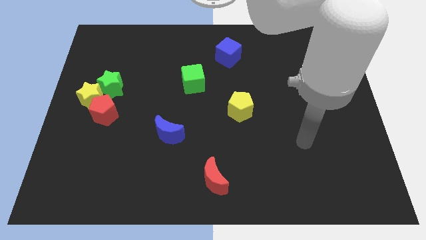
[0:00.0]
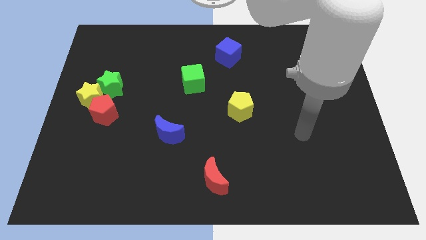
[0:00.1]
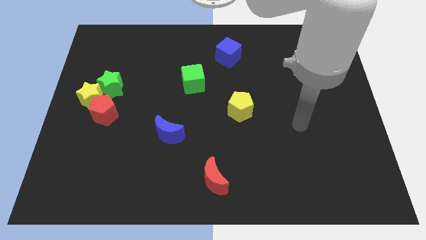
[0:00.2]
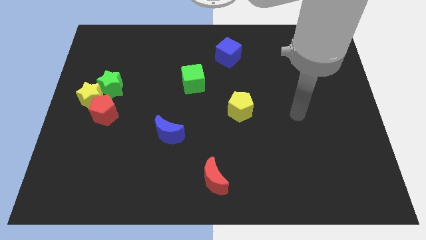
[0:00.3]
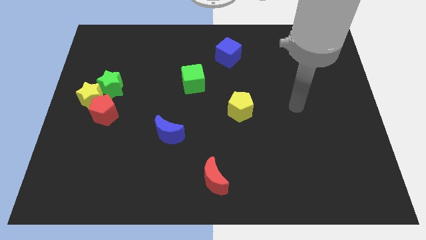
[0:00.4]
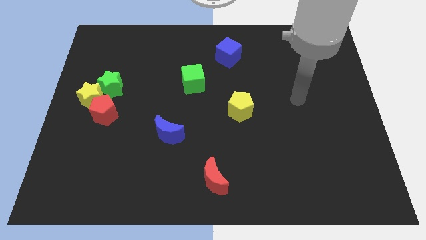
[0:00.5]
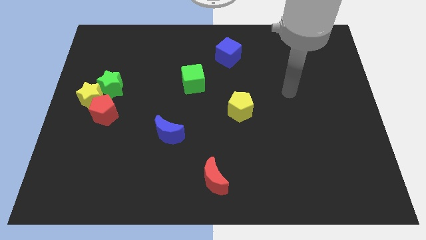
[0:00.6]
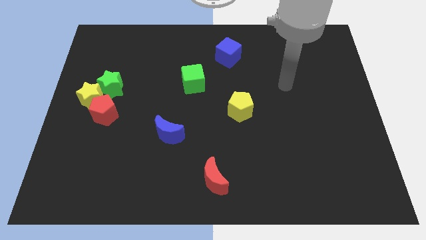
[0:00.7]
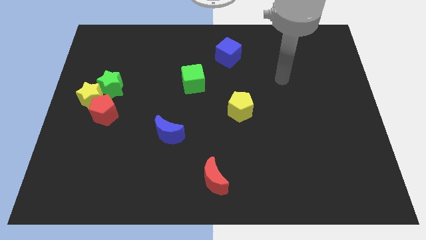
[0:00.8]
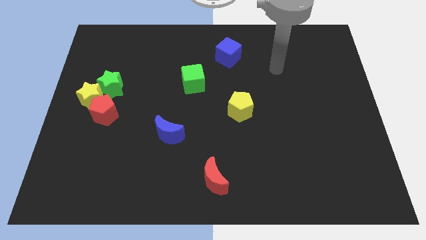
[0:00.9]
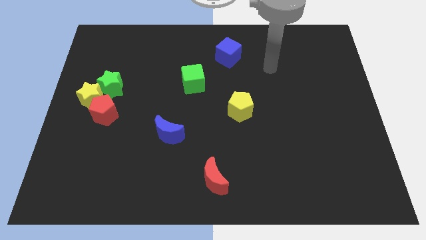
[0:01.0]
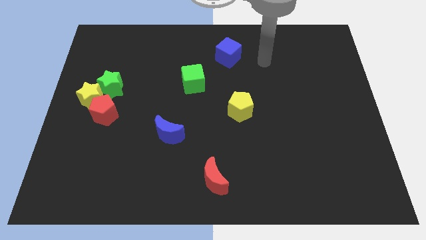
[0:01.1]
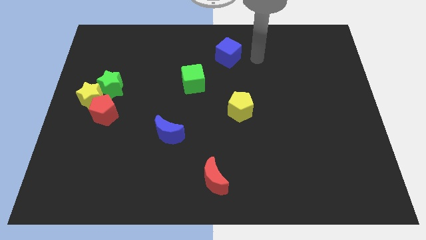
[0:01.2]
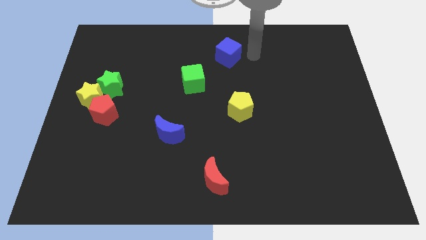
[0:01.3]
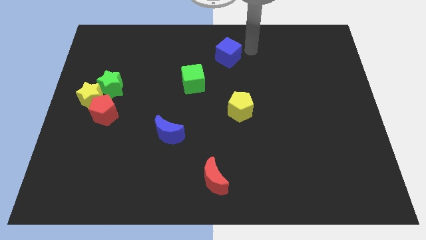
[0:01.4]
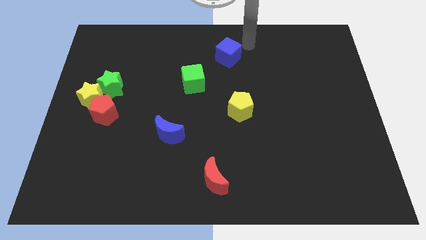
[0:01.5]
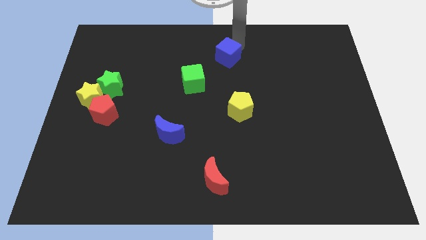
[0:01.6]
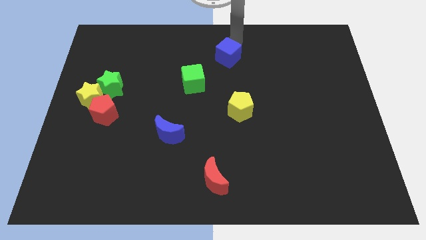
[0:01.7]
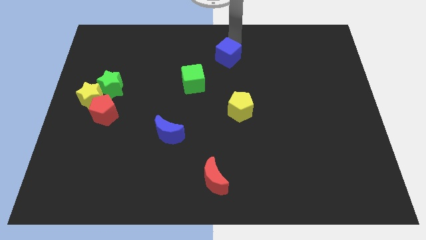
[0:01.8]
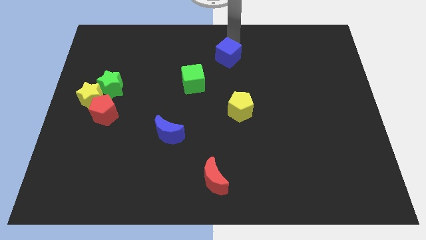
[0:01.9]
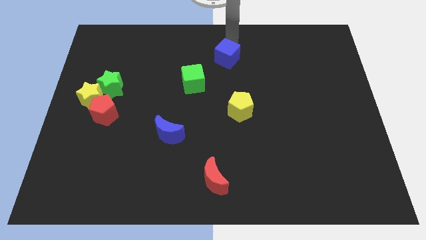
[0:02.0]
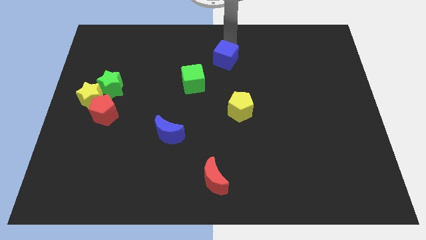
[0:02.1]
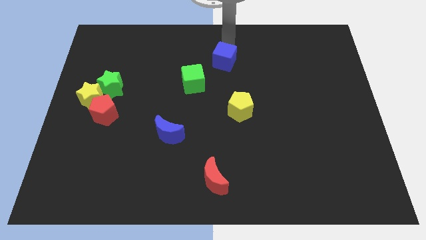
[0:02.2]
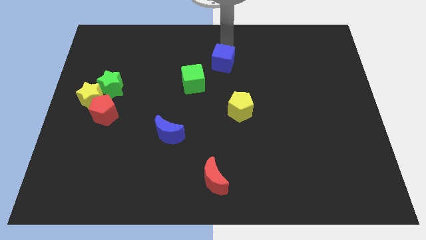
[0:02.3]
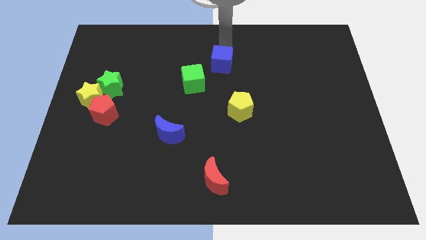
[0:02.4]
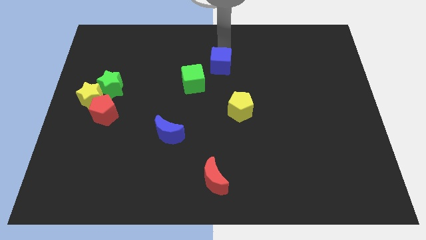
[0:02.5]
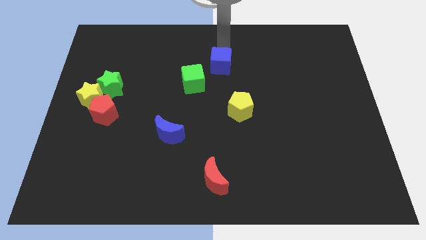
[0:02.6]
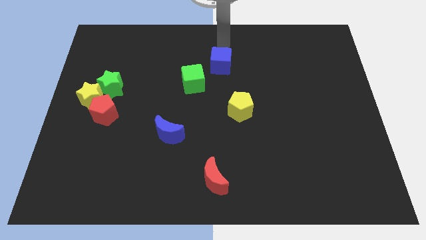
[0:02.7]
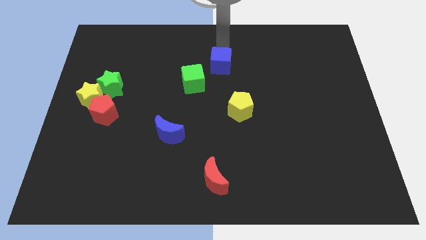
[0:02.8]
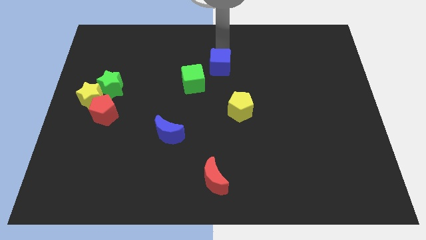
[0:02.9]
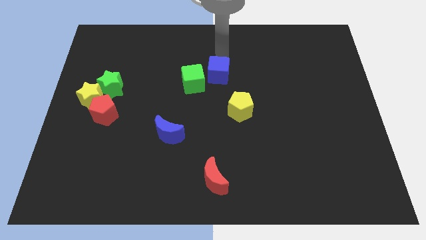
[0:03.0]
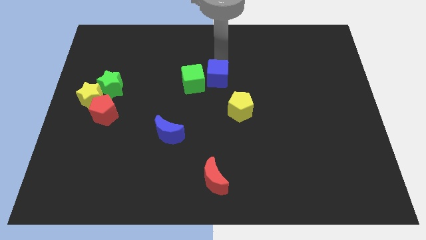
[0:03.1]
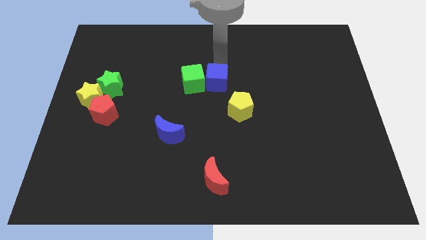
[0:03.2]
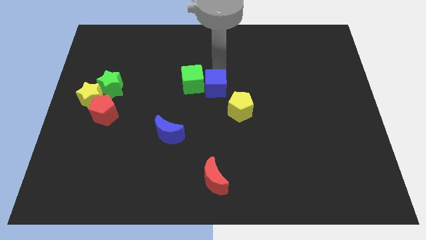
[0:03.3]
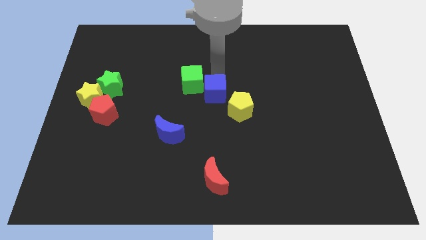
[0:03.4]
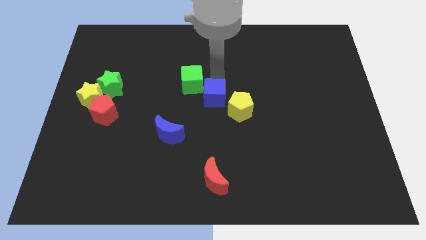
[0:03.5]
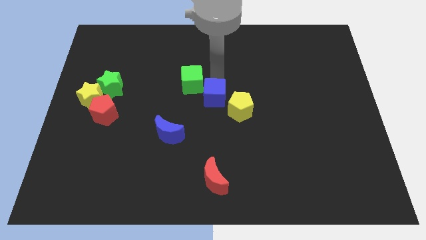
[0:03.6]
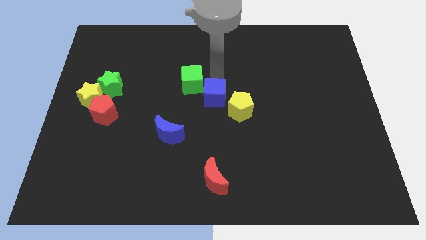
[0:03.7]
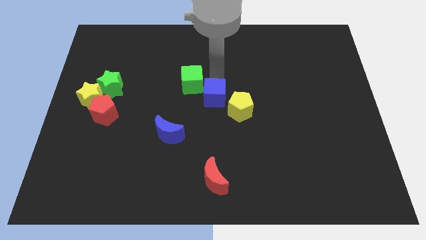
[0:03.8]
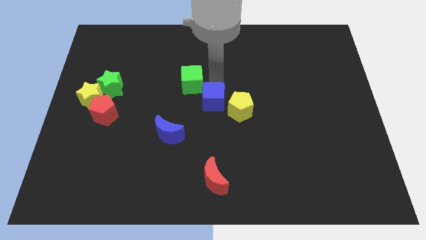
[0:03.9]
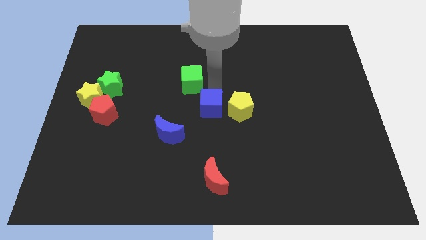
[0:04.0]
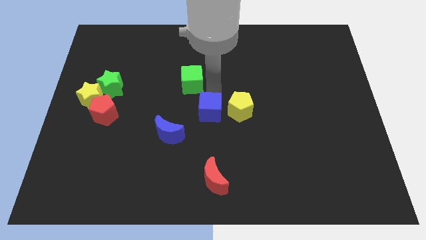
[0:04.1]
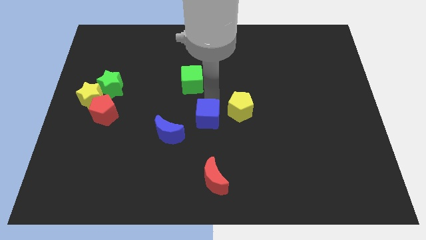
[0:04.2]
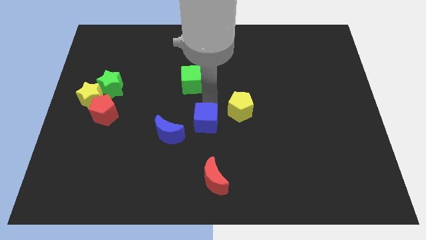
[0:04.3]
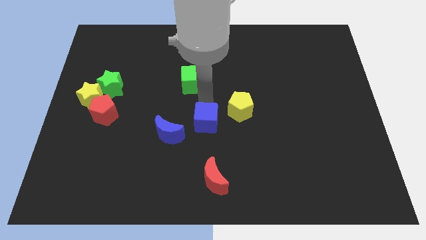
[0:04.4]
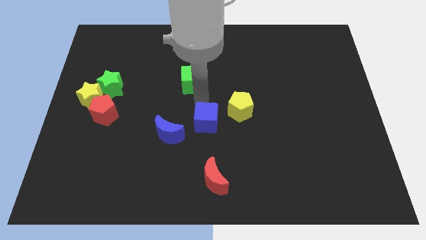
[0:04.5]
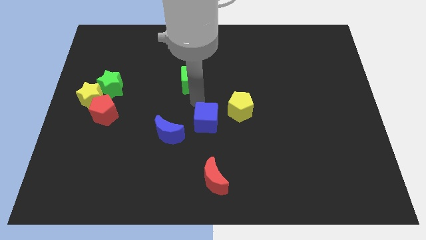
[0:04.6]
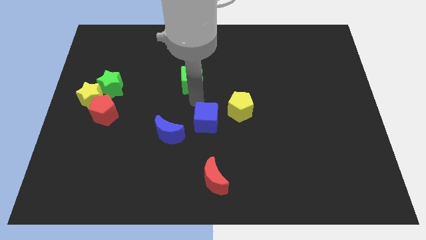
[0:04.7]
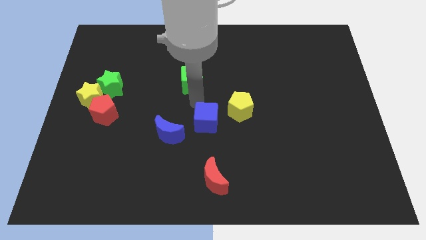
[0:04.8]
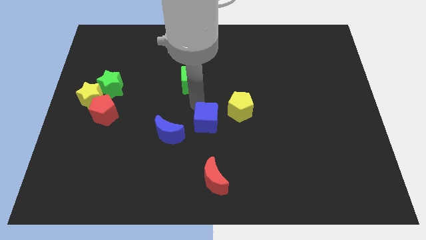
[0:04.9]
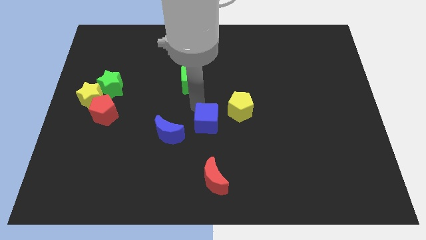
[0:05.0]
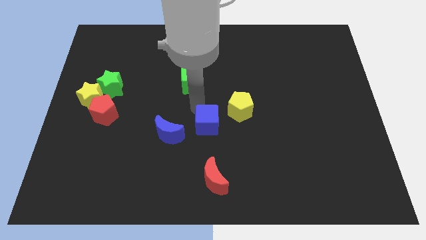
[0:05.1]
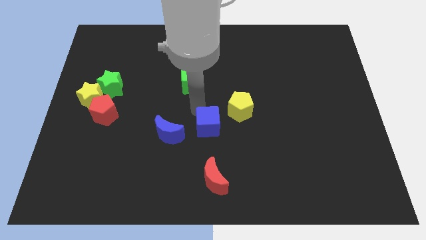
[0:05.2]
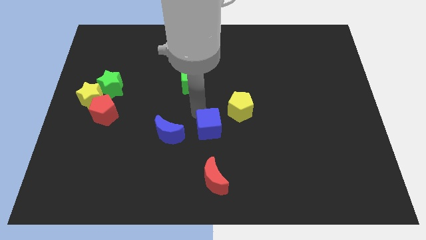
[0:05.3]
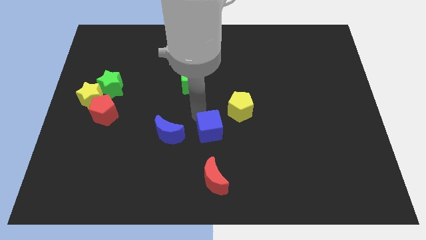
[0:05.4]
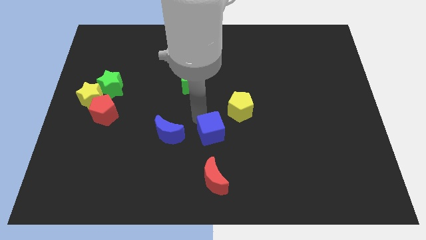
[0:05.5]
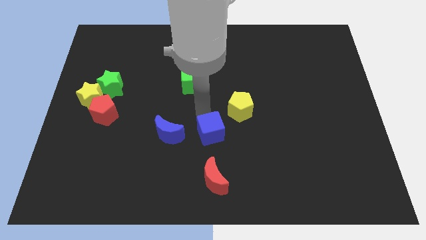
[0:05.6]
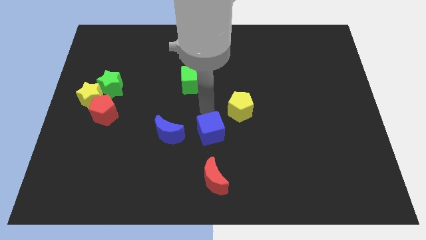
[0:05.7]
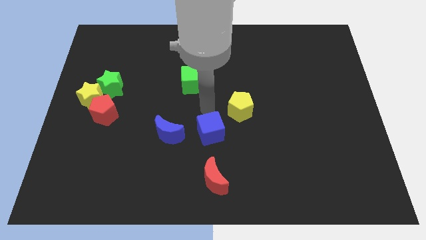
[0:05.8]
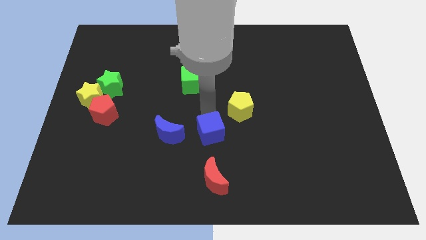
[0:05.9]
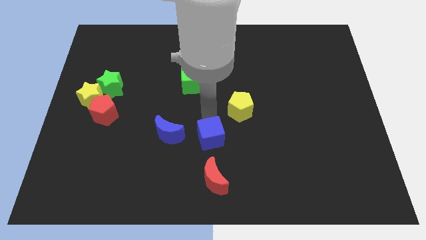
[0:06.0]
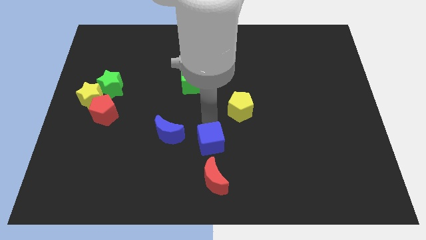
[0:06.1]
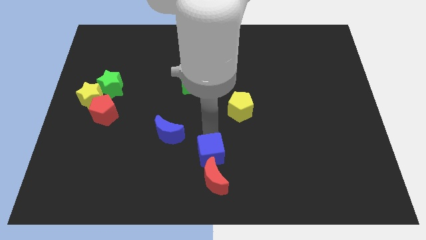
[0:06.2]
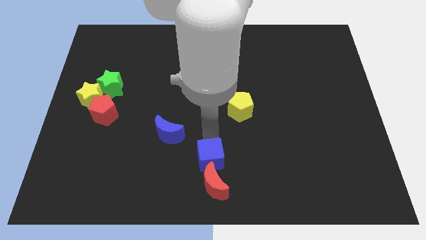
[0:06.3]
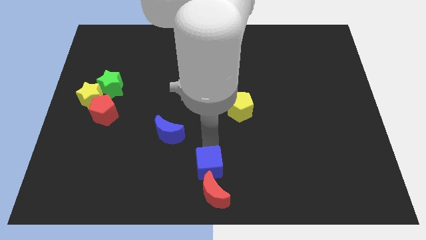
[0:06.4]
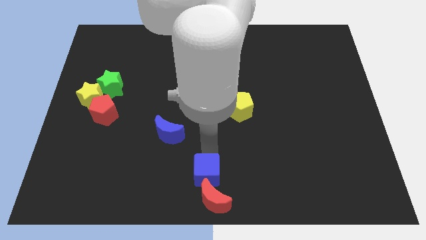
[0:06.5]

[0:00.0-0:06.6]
slide the blue cube towards the red moon

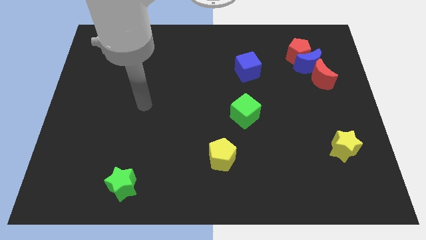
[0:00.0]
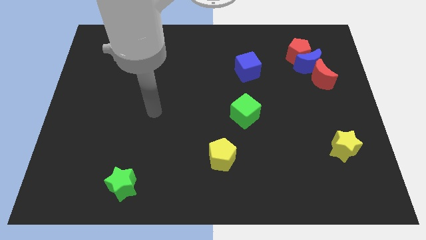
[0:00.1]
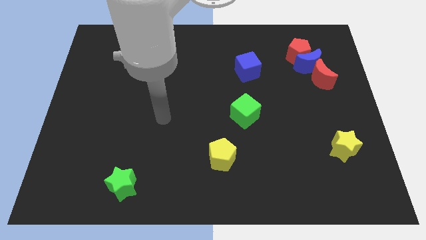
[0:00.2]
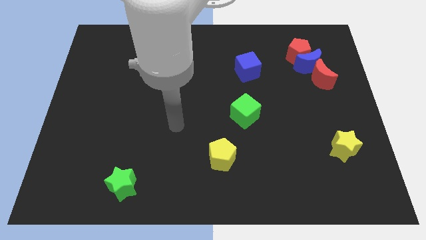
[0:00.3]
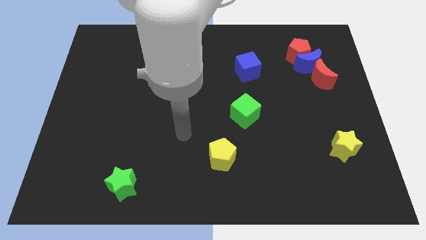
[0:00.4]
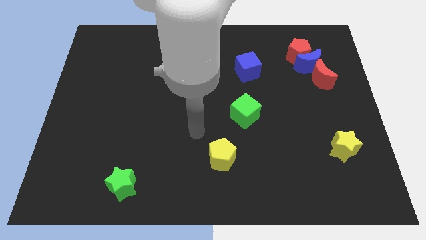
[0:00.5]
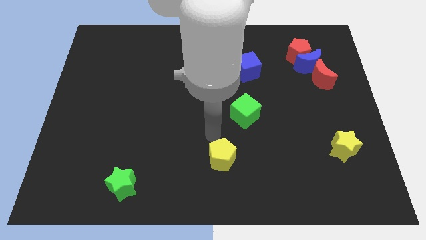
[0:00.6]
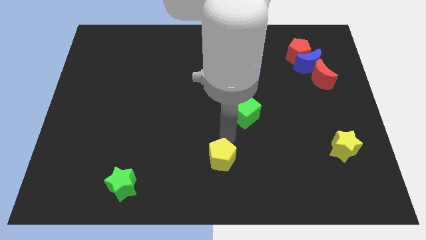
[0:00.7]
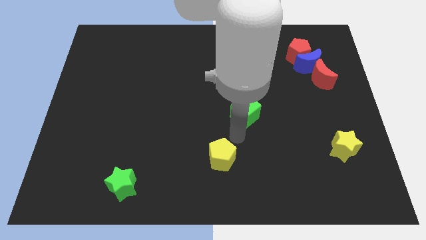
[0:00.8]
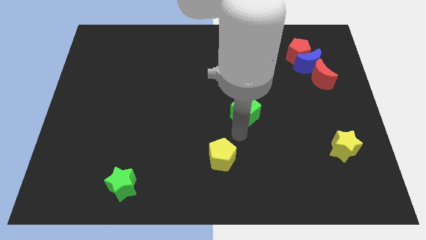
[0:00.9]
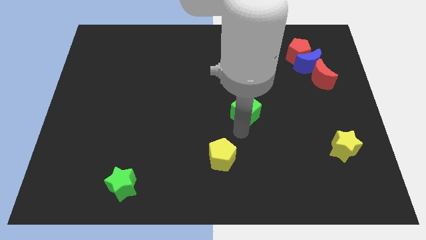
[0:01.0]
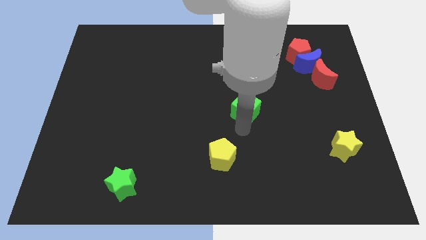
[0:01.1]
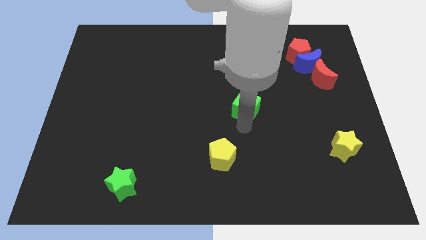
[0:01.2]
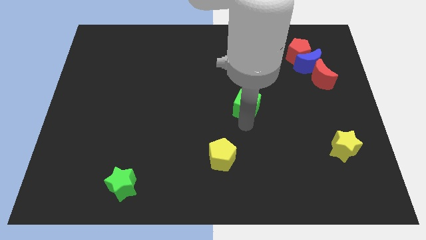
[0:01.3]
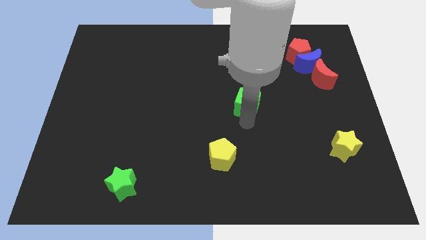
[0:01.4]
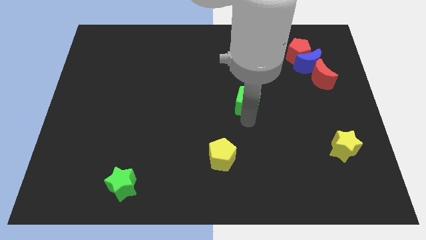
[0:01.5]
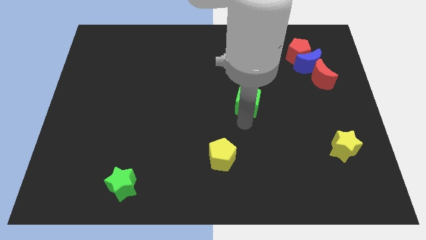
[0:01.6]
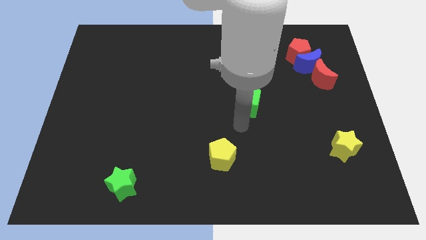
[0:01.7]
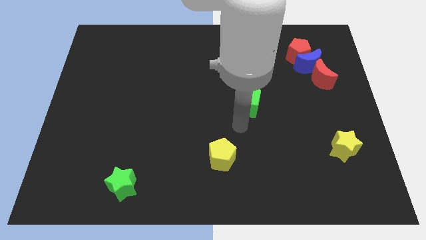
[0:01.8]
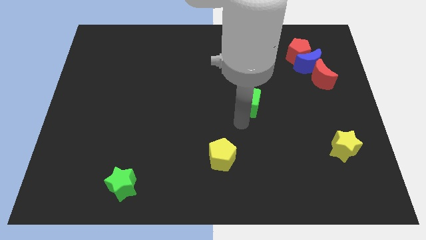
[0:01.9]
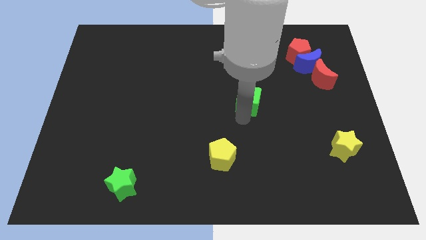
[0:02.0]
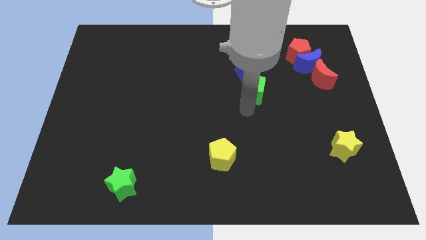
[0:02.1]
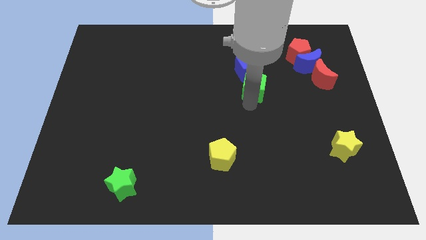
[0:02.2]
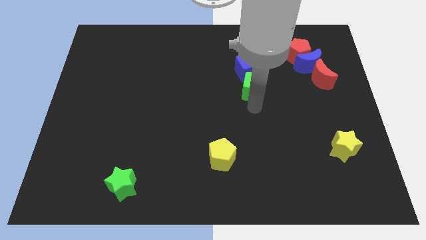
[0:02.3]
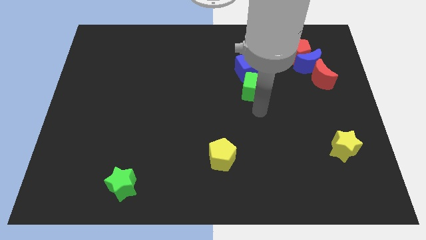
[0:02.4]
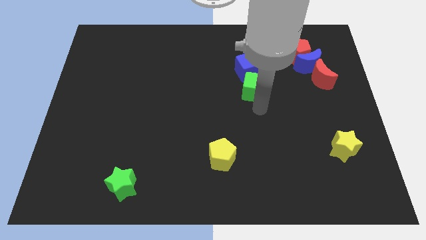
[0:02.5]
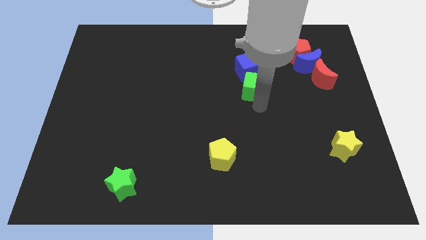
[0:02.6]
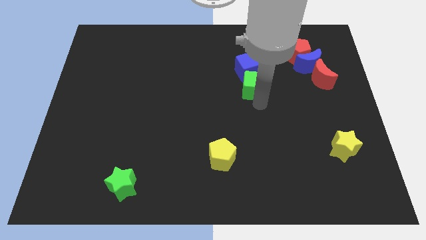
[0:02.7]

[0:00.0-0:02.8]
put the green cube next to the blue cube
